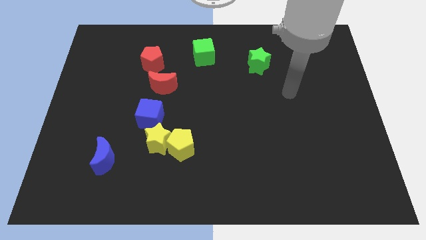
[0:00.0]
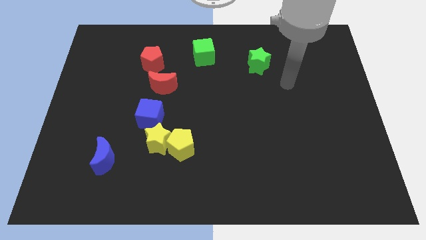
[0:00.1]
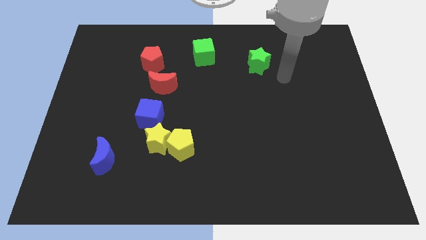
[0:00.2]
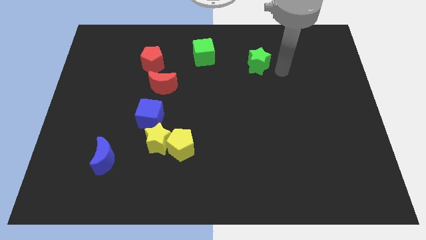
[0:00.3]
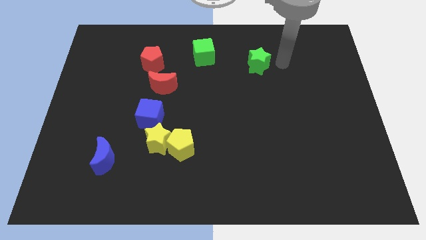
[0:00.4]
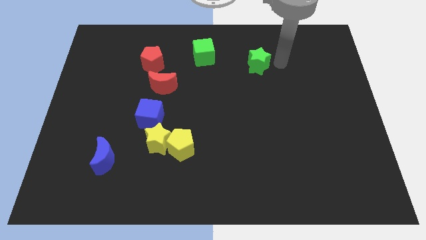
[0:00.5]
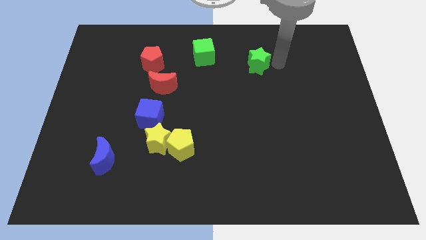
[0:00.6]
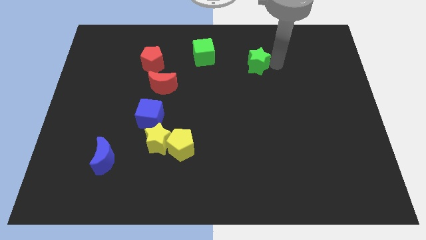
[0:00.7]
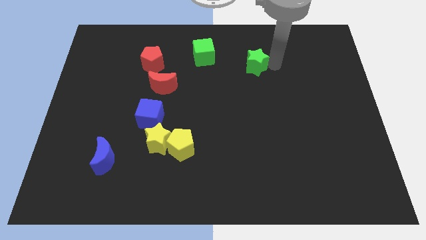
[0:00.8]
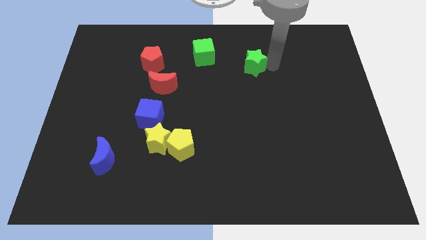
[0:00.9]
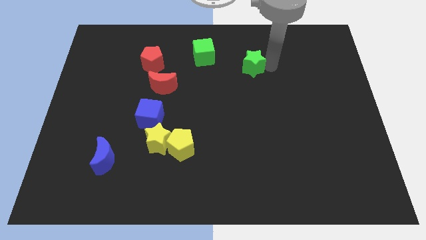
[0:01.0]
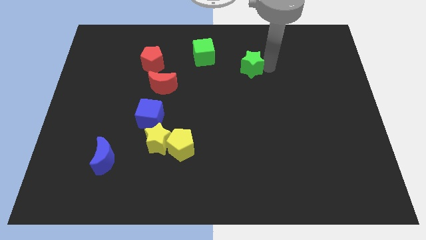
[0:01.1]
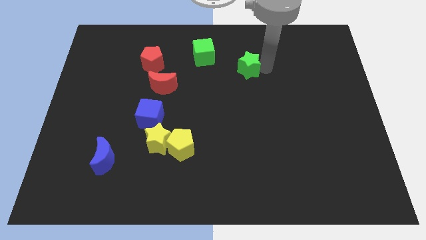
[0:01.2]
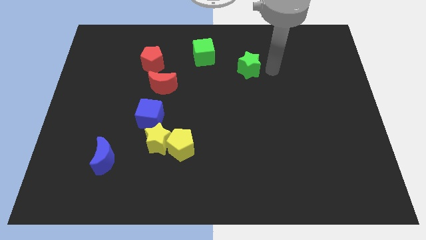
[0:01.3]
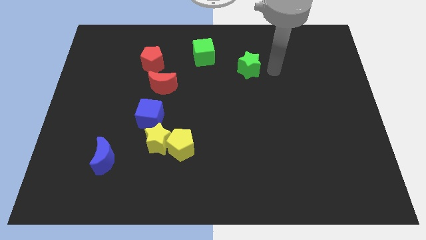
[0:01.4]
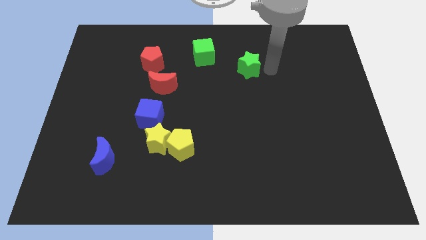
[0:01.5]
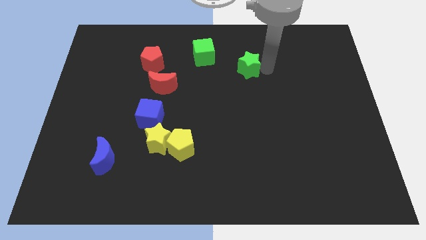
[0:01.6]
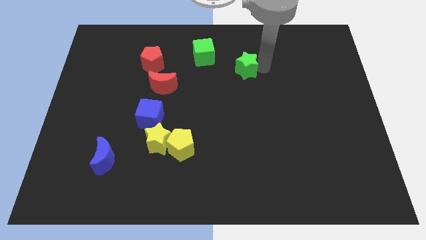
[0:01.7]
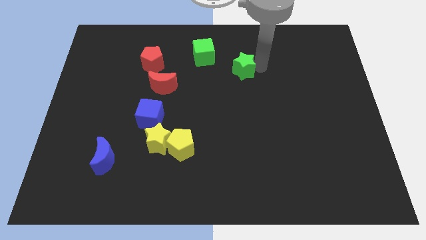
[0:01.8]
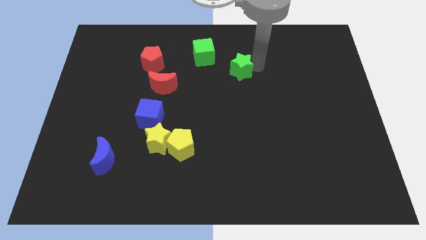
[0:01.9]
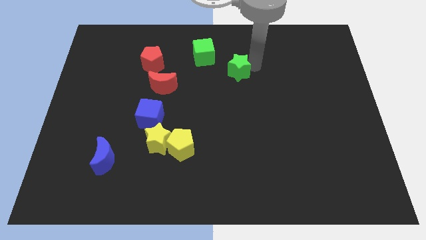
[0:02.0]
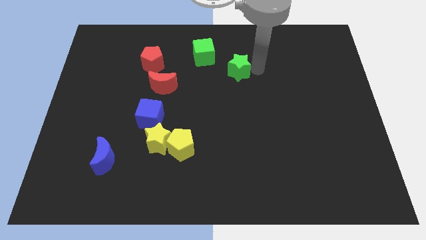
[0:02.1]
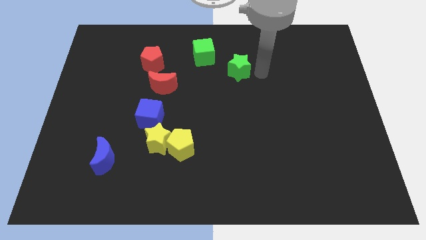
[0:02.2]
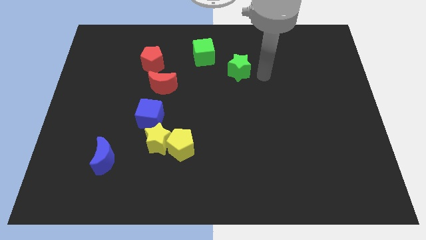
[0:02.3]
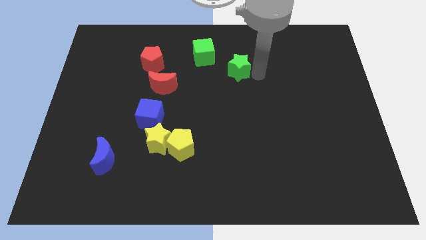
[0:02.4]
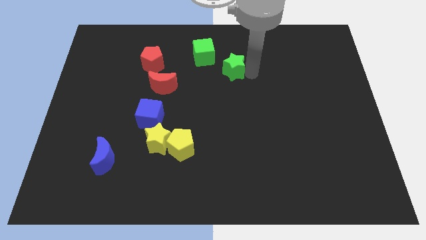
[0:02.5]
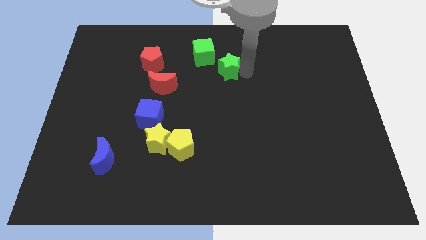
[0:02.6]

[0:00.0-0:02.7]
push the green star to the left somewhat

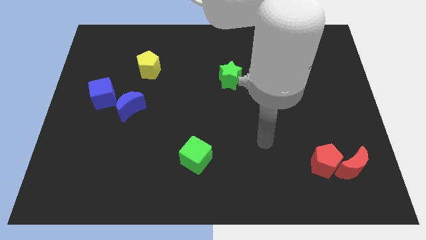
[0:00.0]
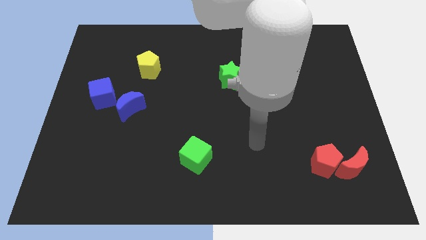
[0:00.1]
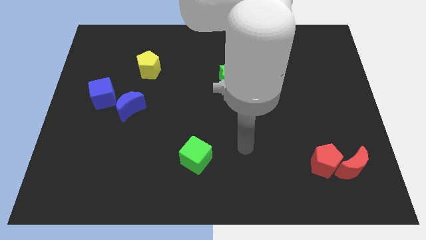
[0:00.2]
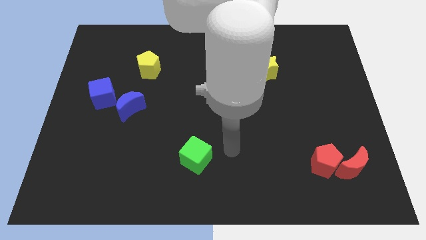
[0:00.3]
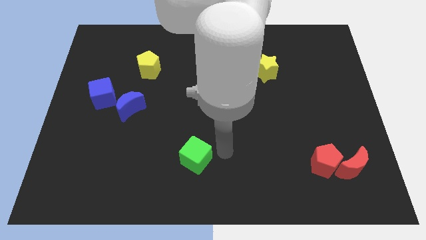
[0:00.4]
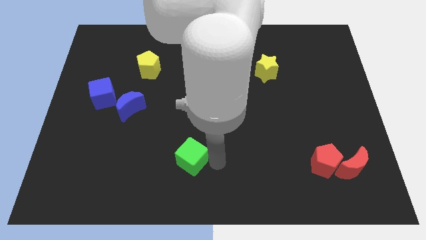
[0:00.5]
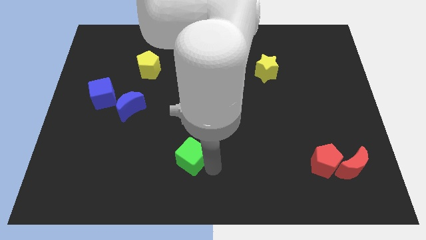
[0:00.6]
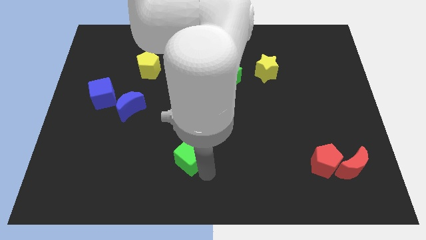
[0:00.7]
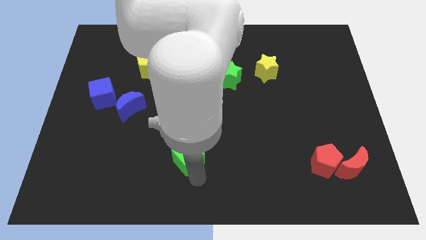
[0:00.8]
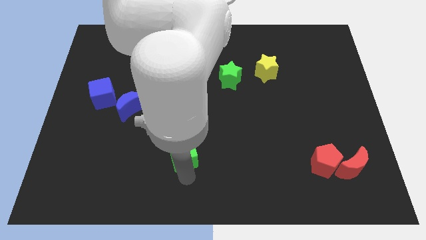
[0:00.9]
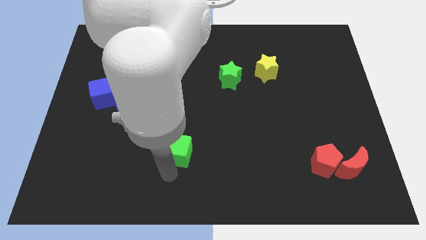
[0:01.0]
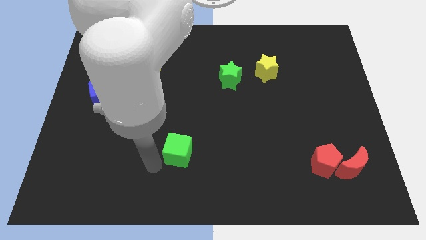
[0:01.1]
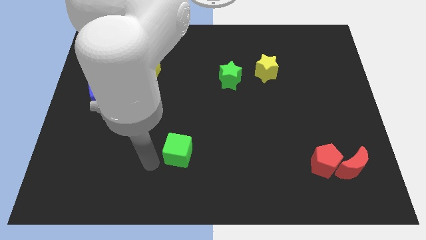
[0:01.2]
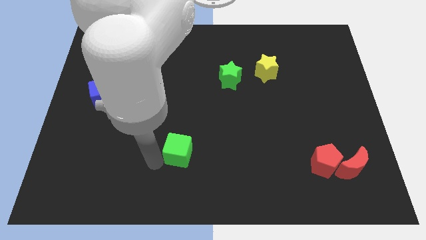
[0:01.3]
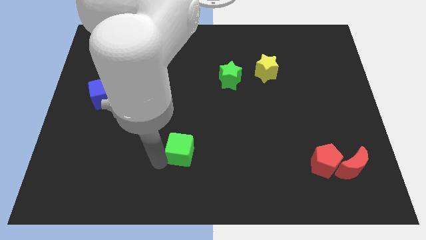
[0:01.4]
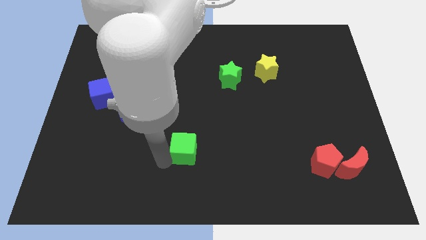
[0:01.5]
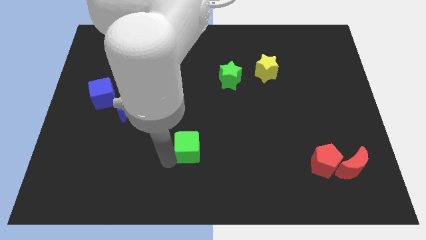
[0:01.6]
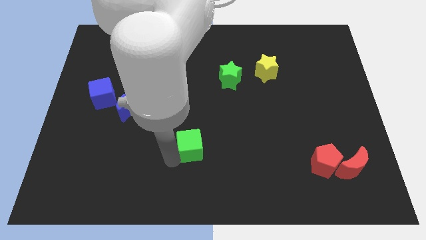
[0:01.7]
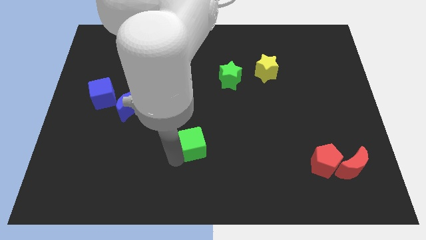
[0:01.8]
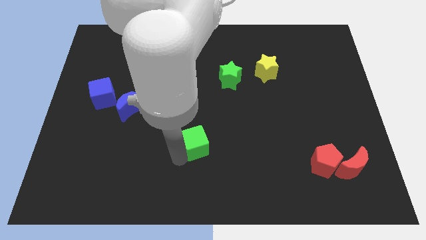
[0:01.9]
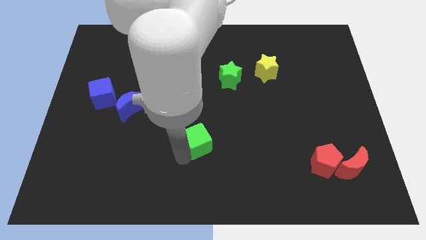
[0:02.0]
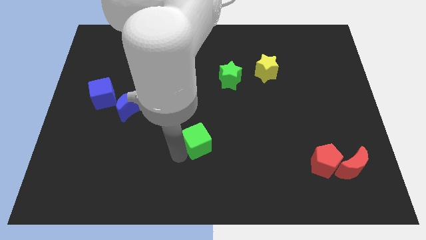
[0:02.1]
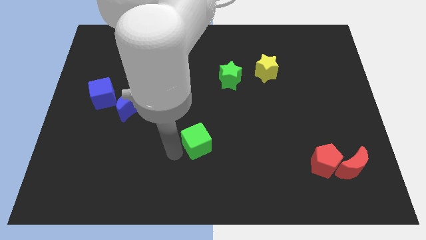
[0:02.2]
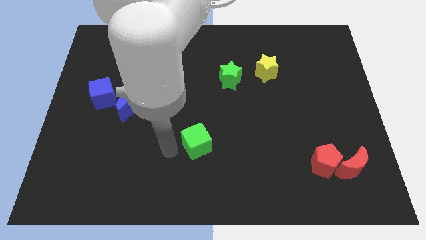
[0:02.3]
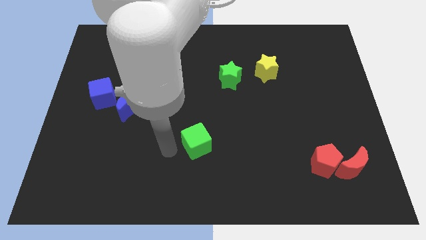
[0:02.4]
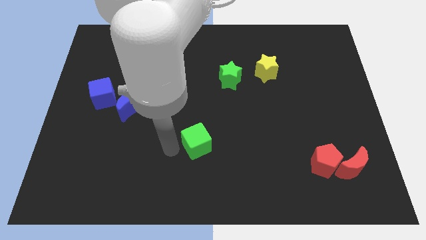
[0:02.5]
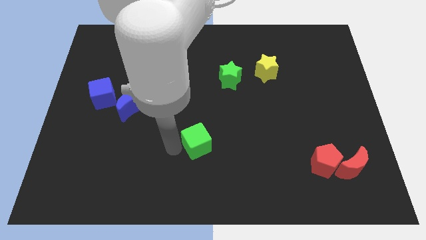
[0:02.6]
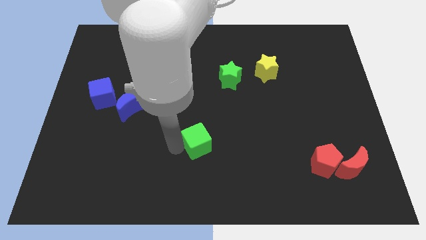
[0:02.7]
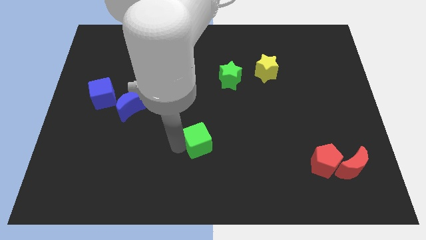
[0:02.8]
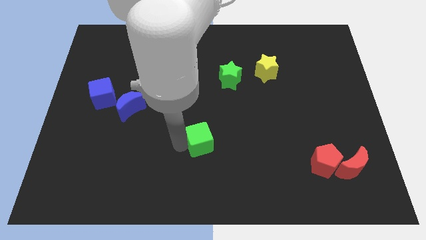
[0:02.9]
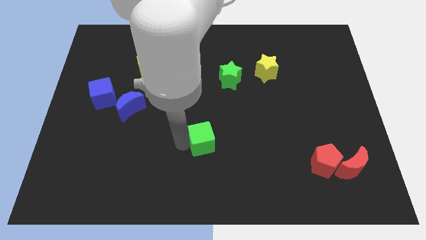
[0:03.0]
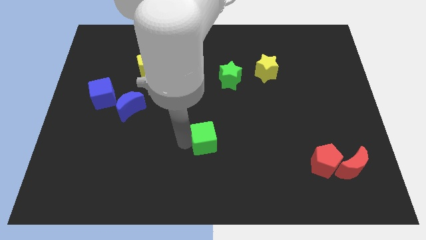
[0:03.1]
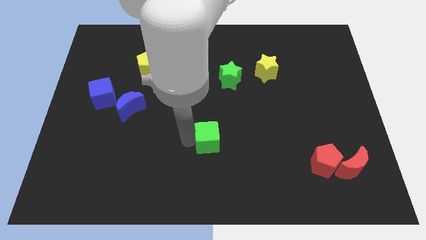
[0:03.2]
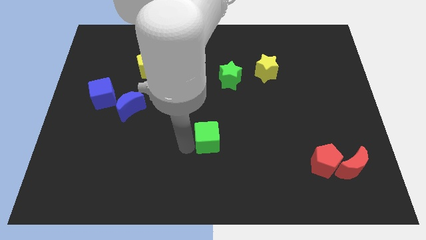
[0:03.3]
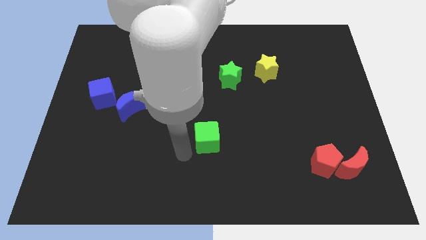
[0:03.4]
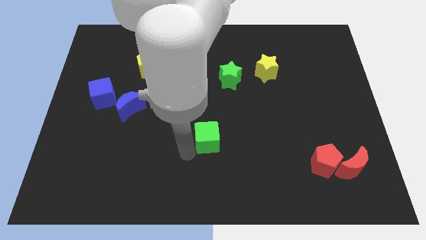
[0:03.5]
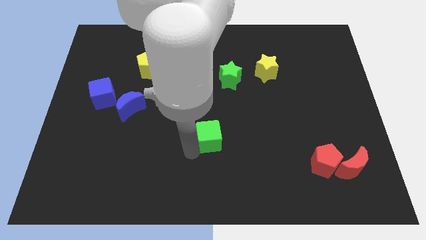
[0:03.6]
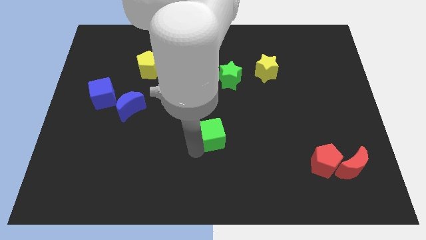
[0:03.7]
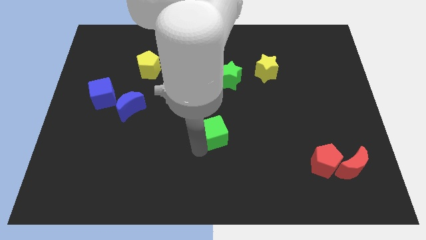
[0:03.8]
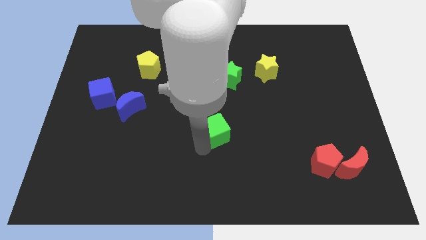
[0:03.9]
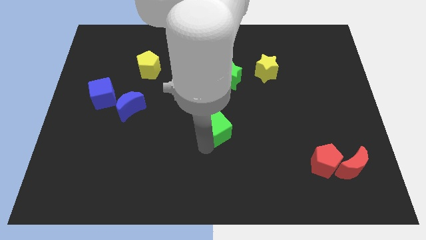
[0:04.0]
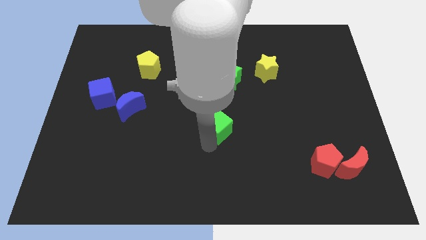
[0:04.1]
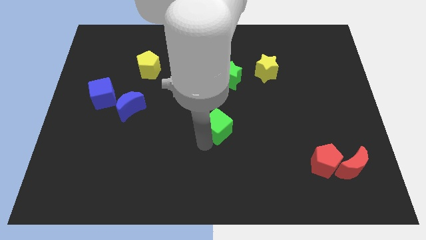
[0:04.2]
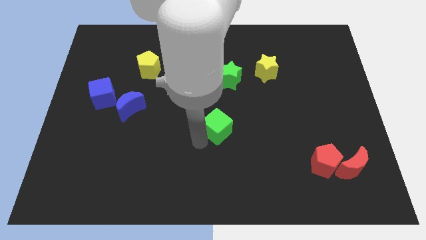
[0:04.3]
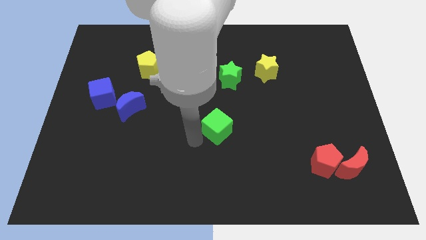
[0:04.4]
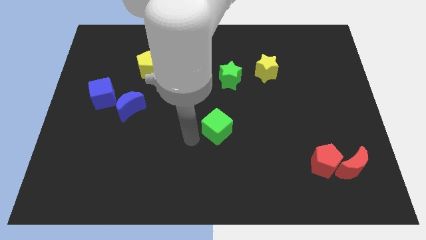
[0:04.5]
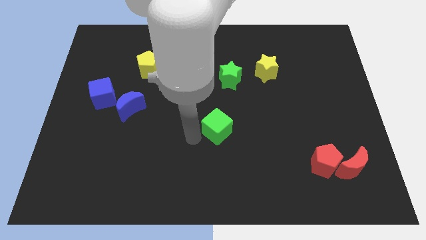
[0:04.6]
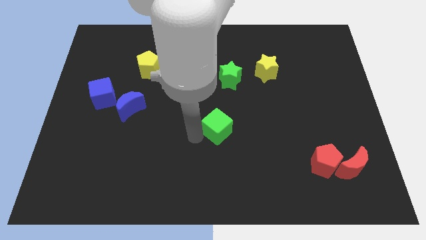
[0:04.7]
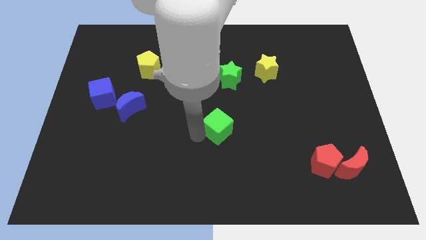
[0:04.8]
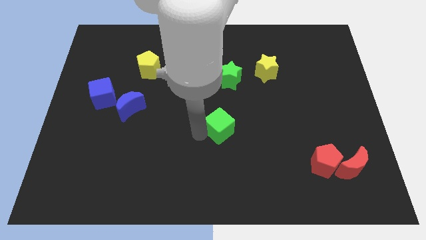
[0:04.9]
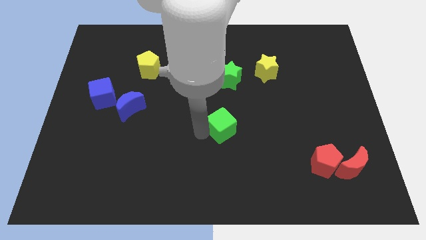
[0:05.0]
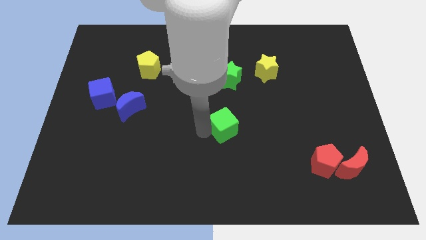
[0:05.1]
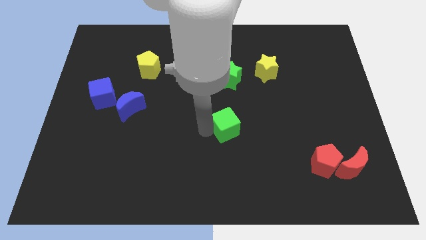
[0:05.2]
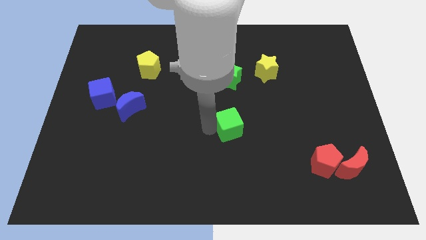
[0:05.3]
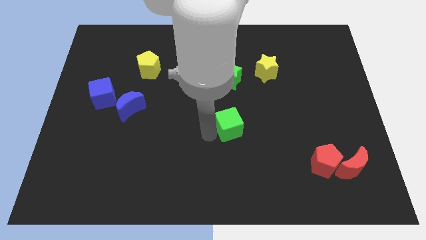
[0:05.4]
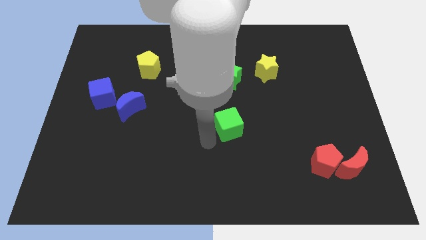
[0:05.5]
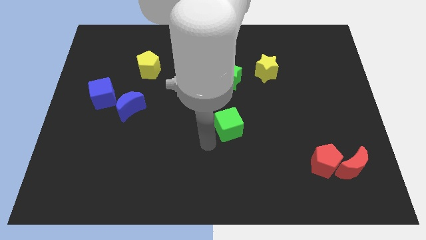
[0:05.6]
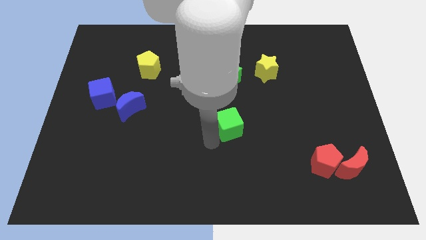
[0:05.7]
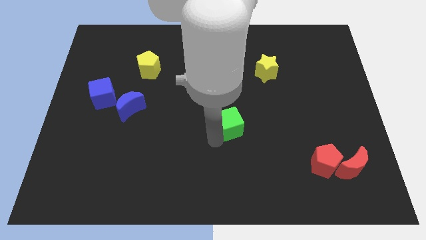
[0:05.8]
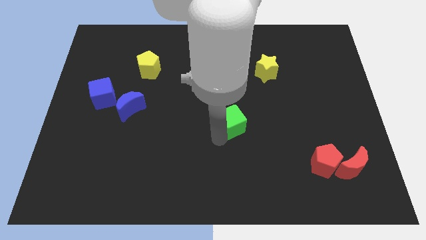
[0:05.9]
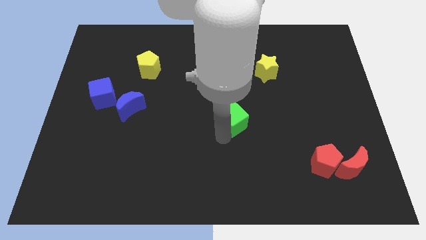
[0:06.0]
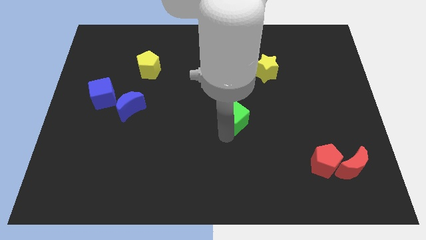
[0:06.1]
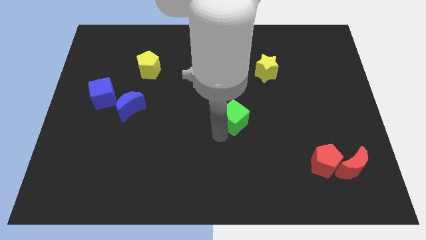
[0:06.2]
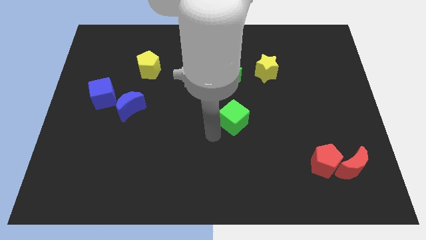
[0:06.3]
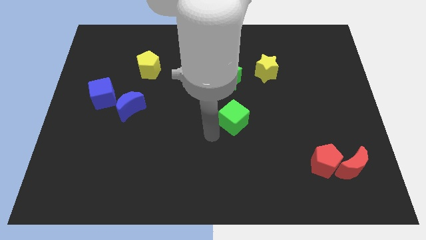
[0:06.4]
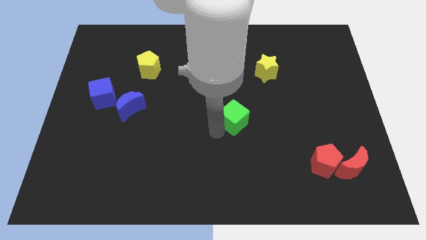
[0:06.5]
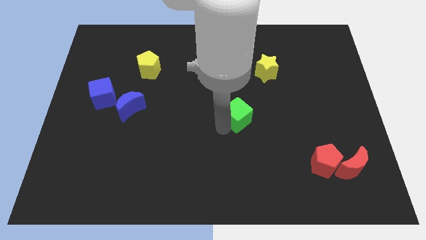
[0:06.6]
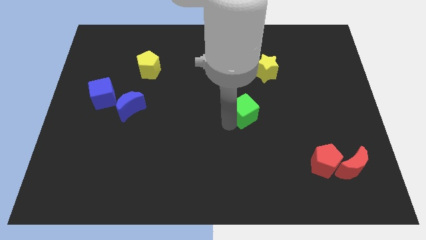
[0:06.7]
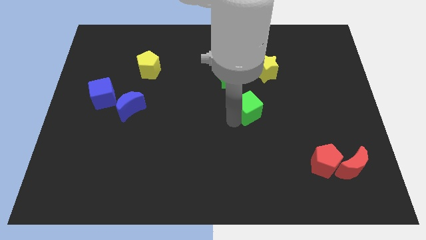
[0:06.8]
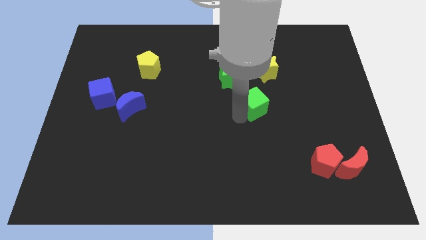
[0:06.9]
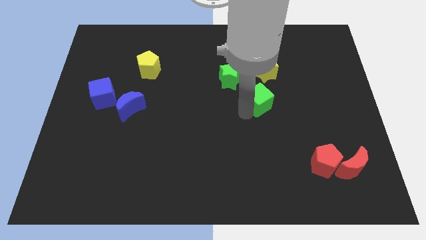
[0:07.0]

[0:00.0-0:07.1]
push the green cube upwards and right
